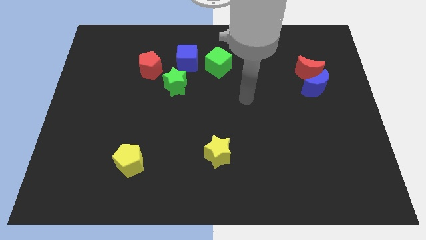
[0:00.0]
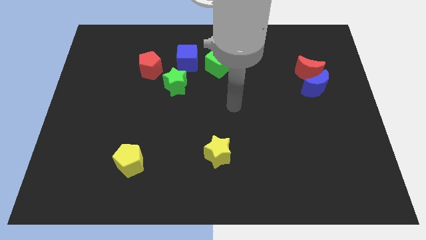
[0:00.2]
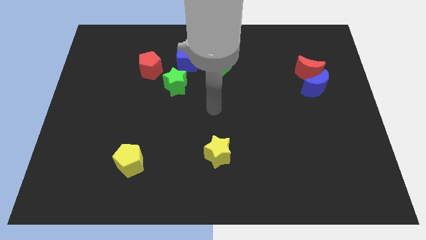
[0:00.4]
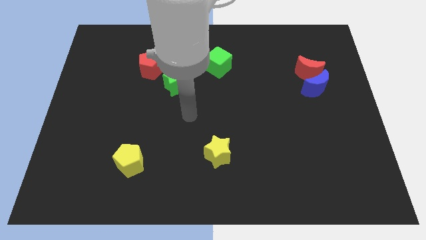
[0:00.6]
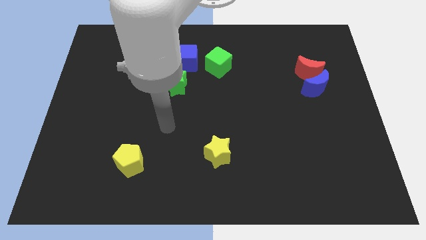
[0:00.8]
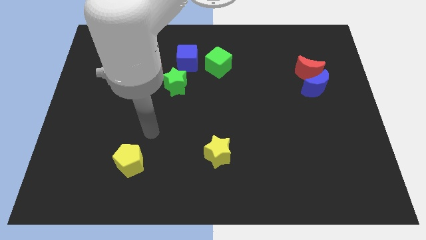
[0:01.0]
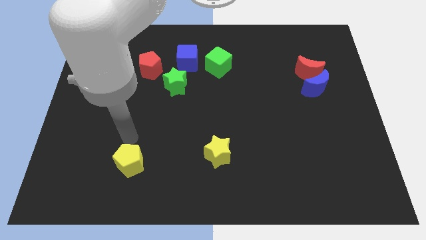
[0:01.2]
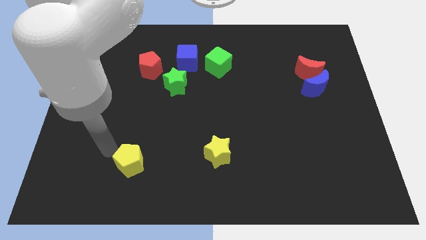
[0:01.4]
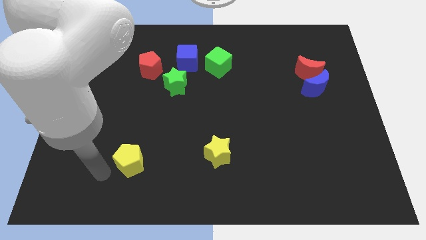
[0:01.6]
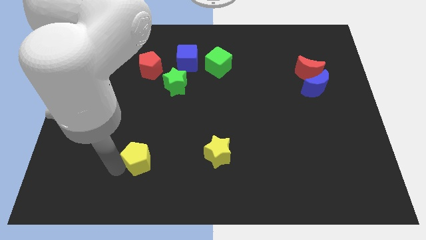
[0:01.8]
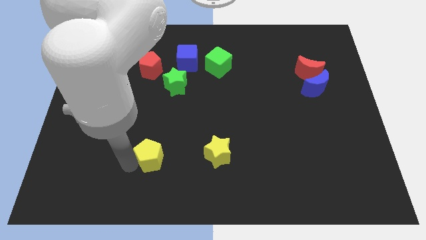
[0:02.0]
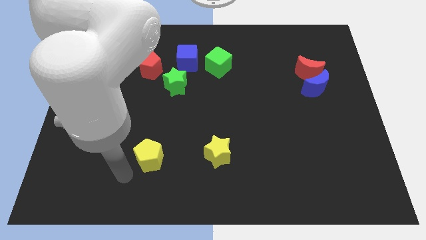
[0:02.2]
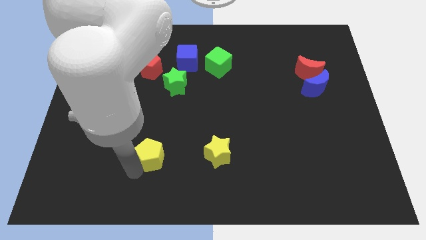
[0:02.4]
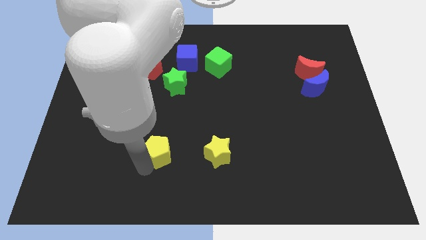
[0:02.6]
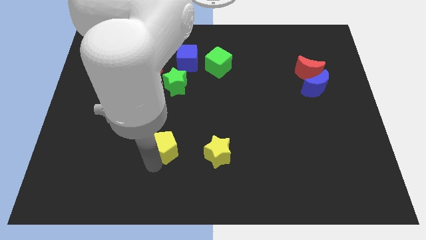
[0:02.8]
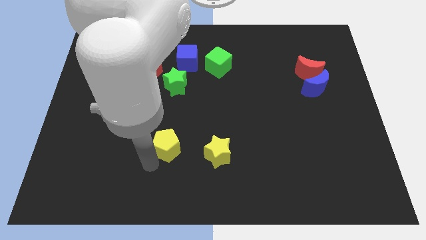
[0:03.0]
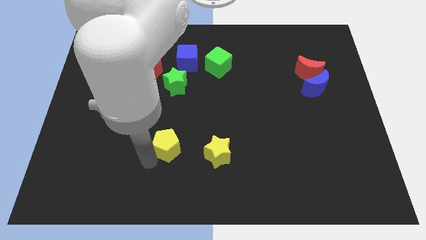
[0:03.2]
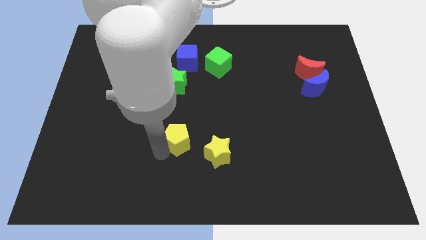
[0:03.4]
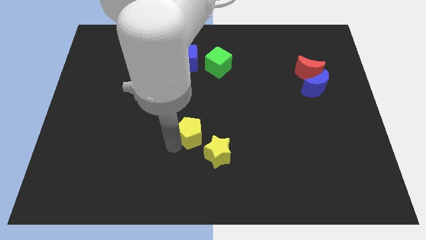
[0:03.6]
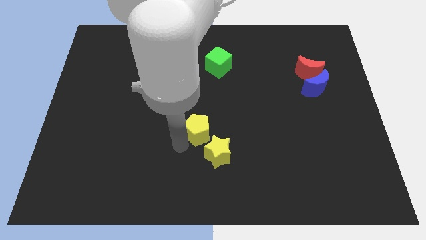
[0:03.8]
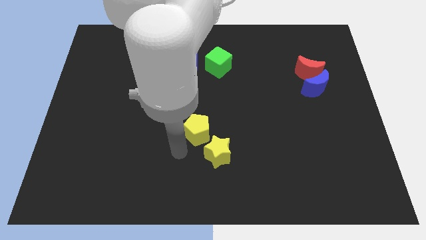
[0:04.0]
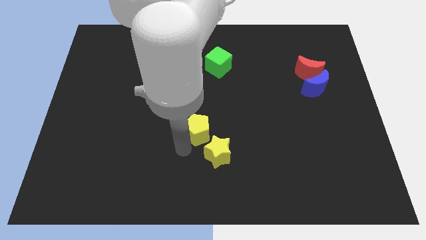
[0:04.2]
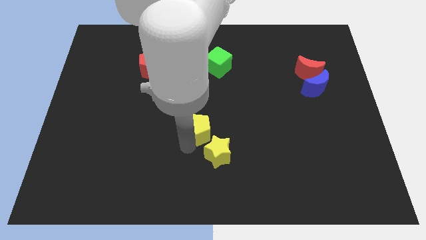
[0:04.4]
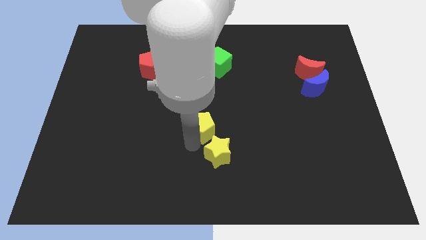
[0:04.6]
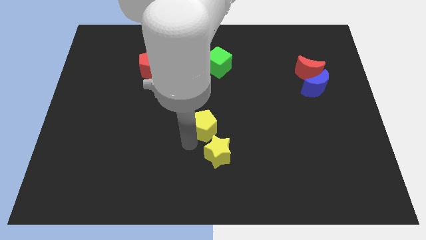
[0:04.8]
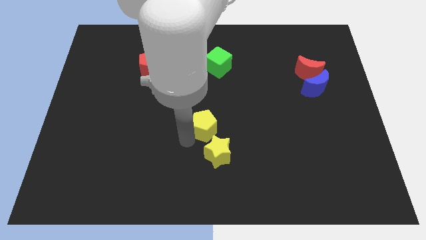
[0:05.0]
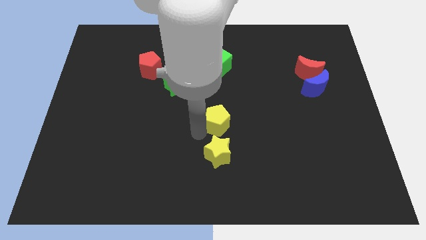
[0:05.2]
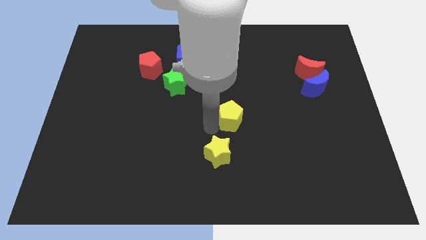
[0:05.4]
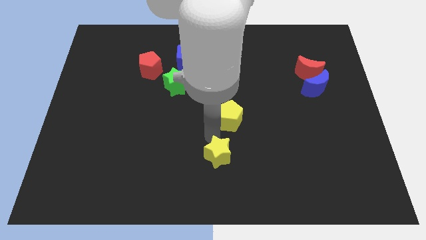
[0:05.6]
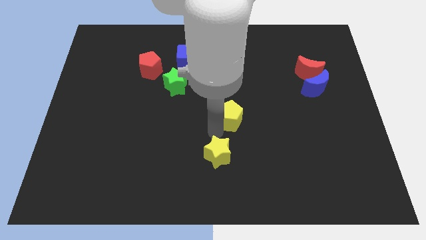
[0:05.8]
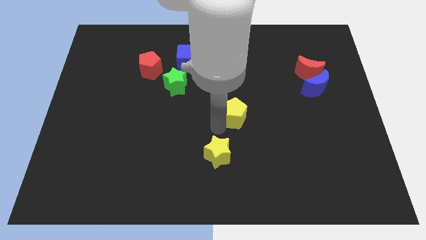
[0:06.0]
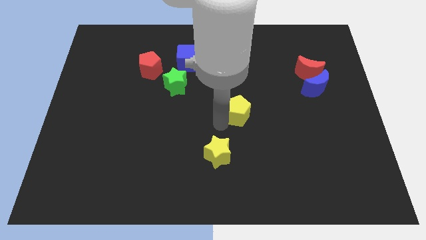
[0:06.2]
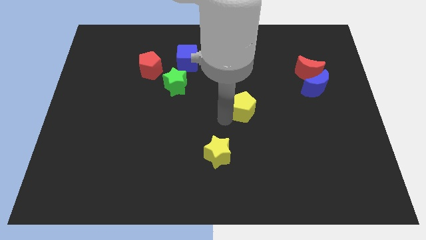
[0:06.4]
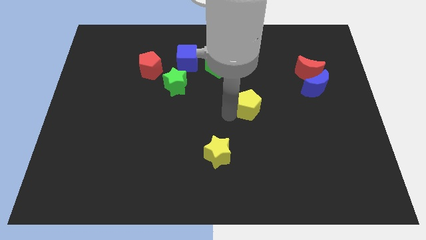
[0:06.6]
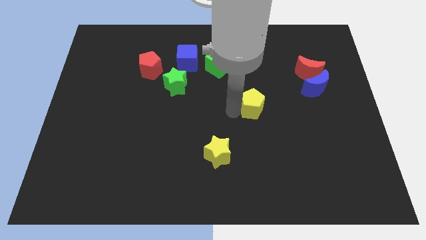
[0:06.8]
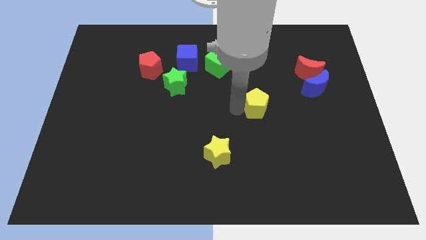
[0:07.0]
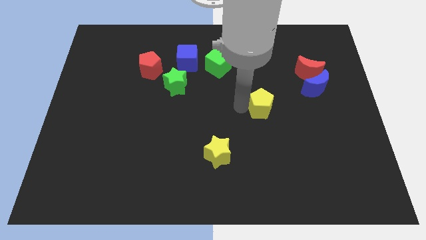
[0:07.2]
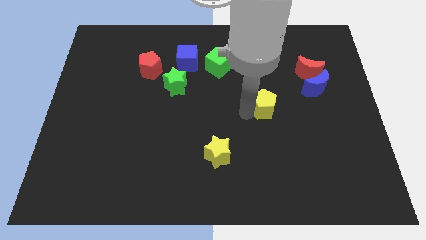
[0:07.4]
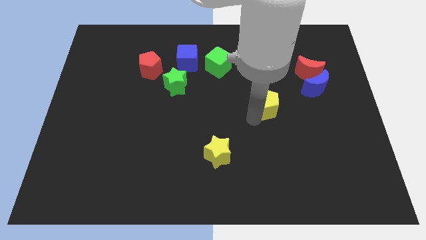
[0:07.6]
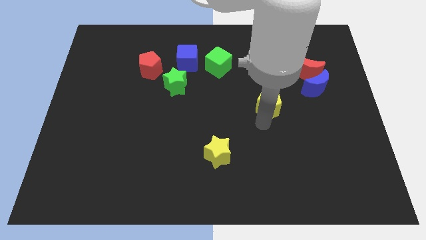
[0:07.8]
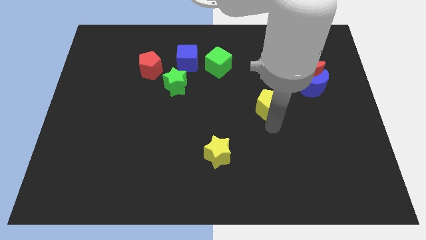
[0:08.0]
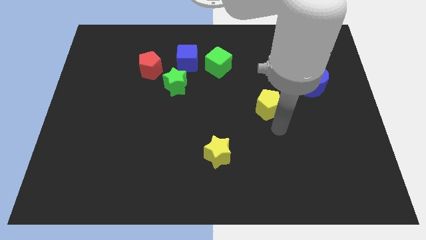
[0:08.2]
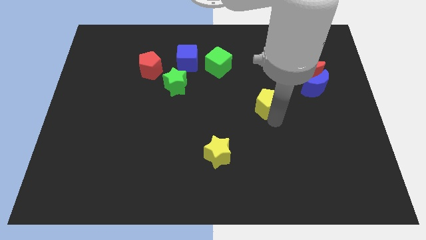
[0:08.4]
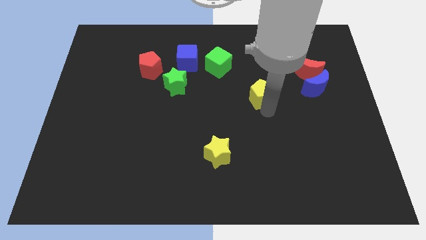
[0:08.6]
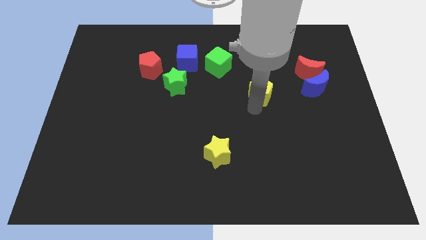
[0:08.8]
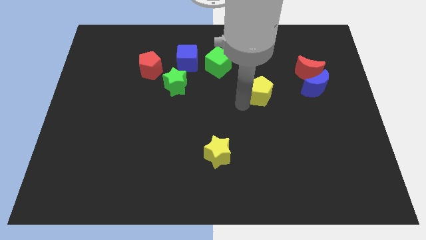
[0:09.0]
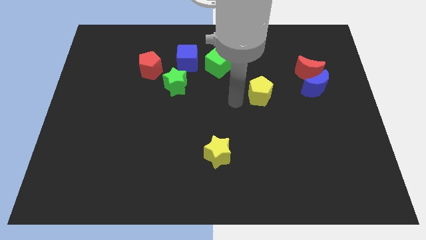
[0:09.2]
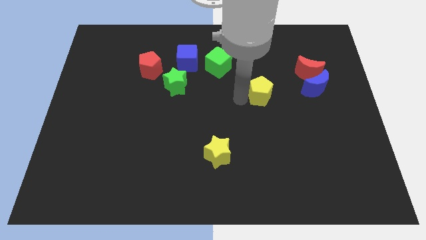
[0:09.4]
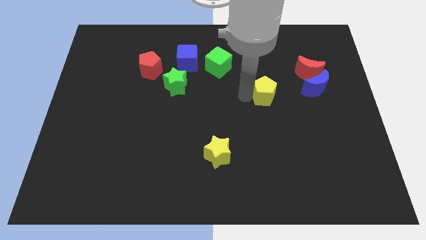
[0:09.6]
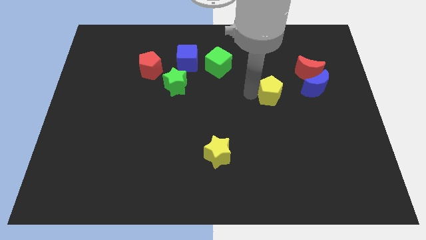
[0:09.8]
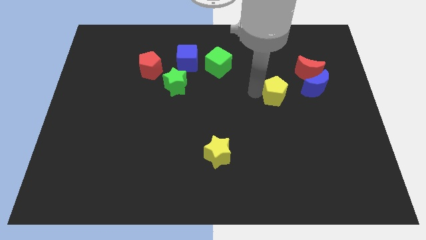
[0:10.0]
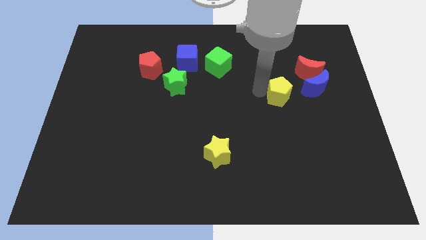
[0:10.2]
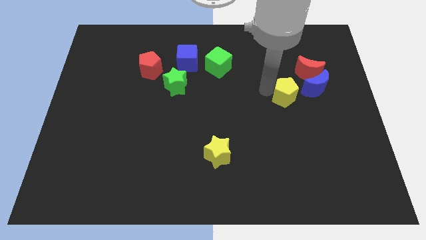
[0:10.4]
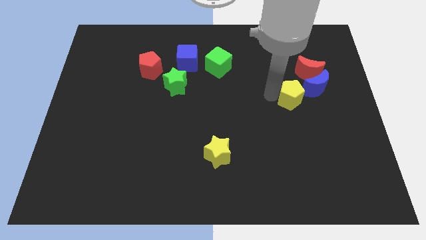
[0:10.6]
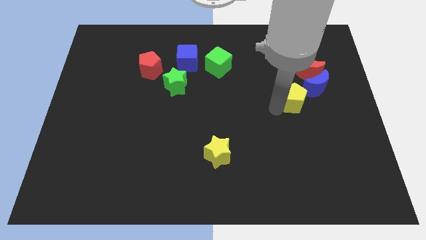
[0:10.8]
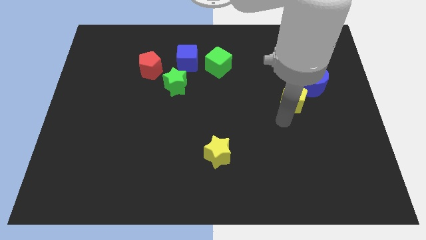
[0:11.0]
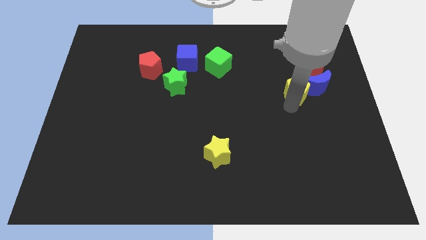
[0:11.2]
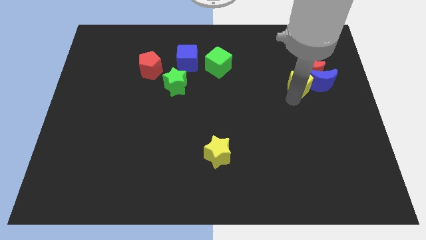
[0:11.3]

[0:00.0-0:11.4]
put the yellow pentagon towards the red moon

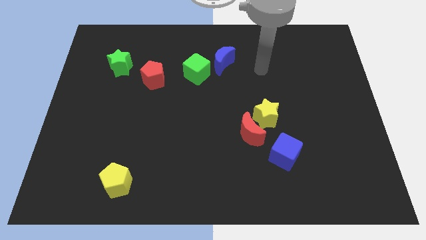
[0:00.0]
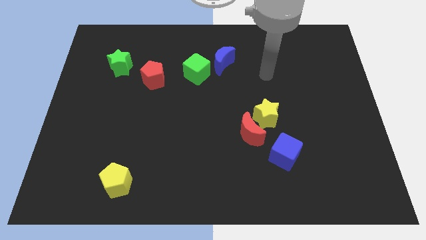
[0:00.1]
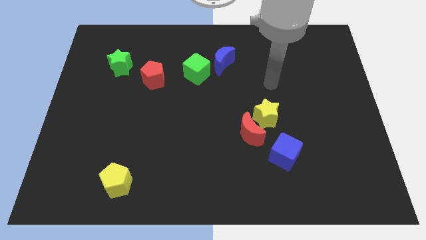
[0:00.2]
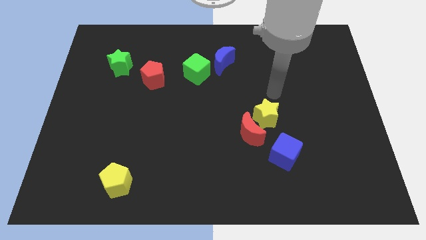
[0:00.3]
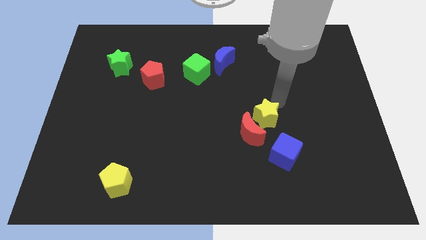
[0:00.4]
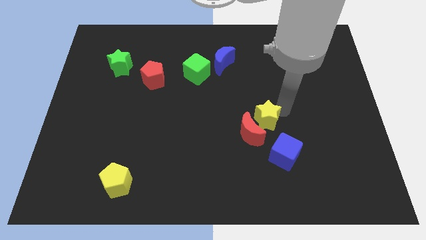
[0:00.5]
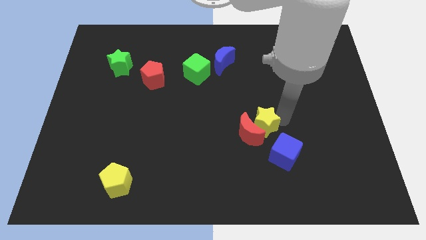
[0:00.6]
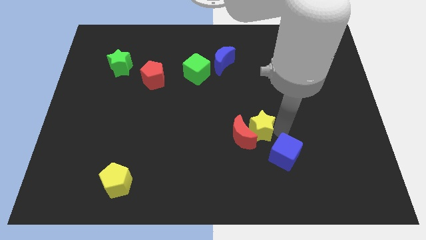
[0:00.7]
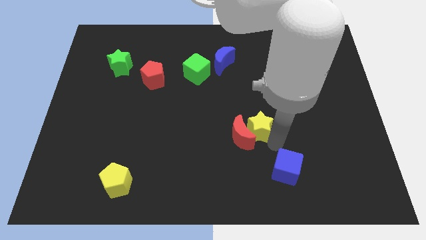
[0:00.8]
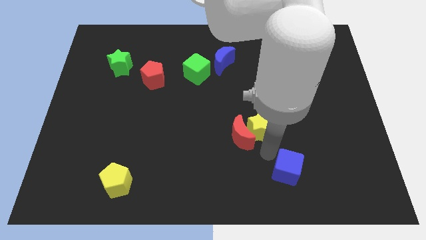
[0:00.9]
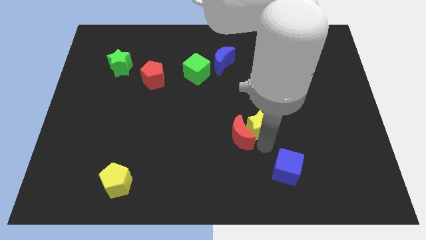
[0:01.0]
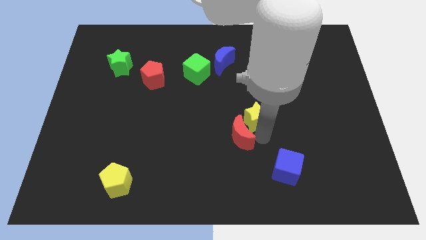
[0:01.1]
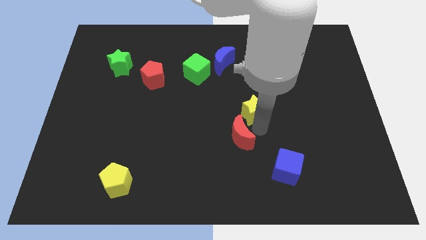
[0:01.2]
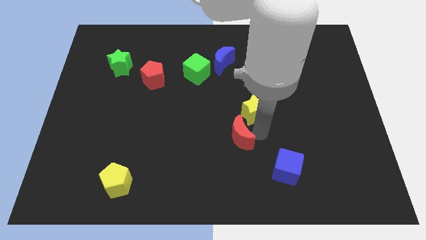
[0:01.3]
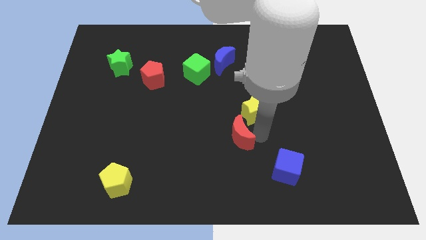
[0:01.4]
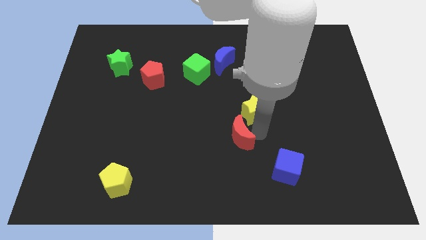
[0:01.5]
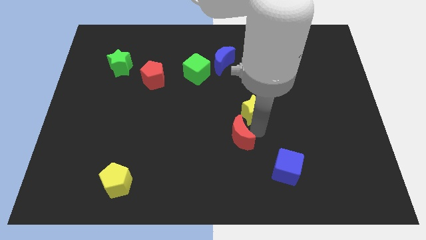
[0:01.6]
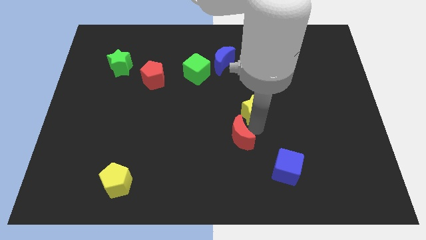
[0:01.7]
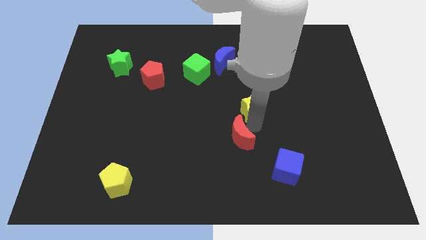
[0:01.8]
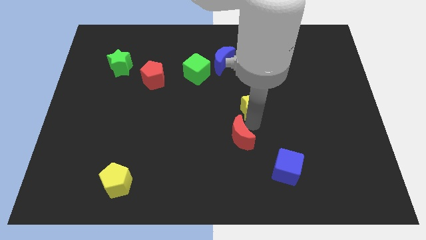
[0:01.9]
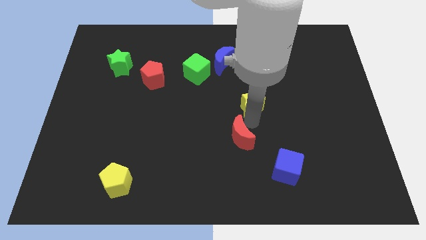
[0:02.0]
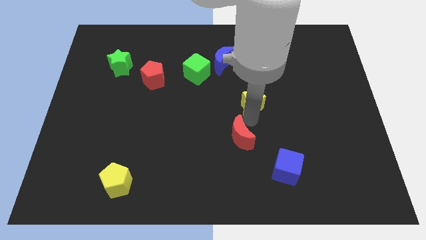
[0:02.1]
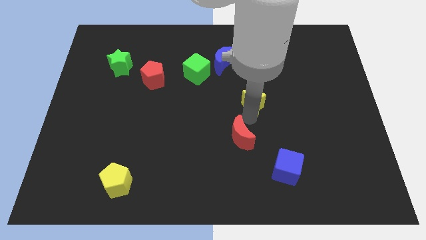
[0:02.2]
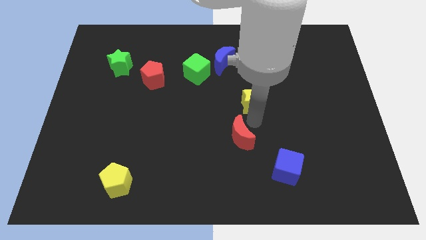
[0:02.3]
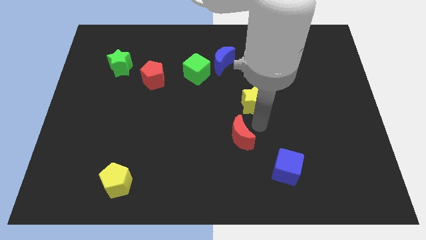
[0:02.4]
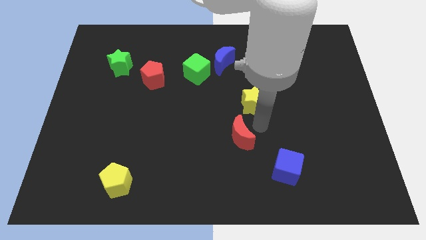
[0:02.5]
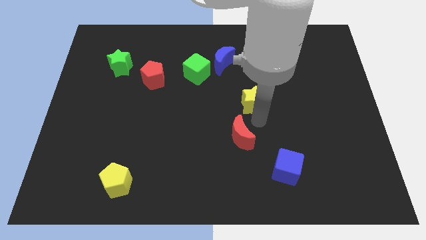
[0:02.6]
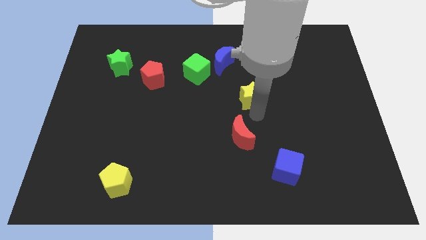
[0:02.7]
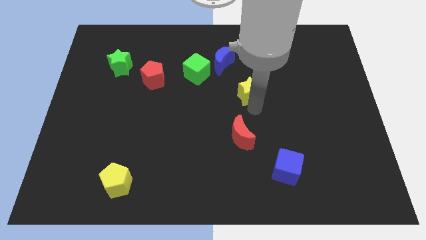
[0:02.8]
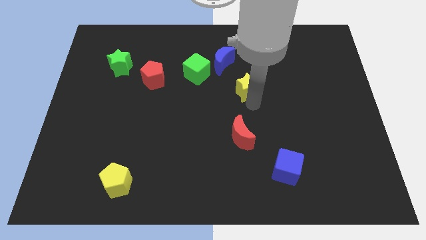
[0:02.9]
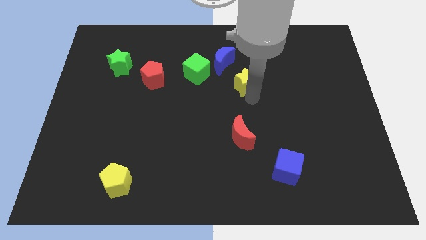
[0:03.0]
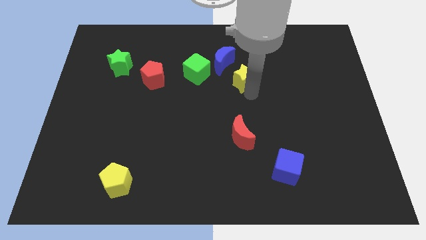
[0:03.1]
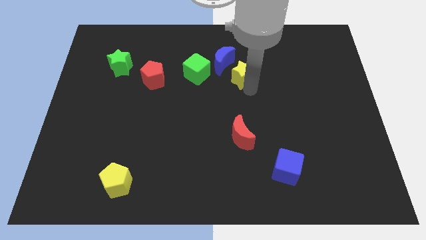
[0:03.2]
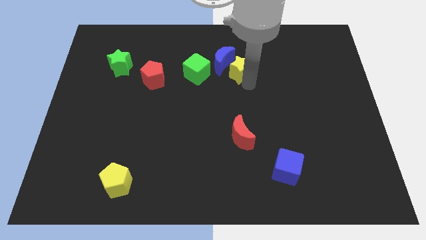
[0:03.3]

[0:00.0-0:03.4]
put the yellow star to the blue moon
